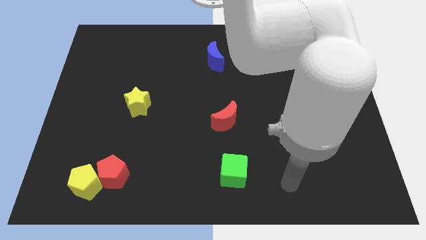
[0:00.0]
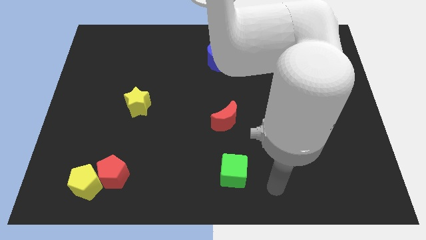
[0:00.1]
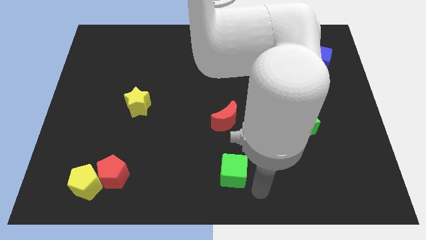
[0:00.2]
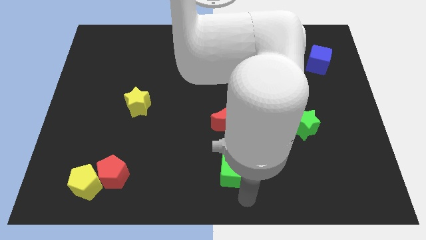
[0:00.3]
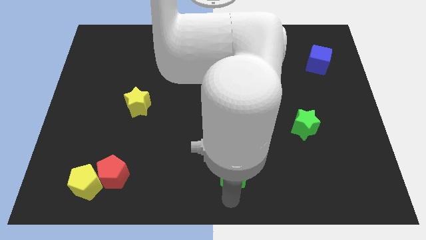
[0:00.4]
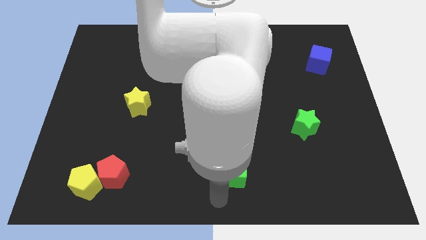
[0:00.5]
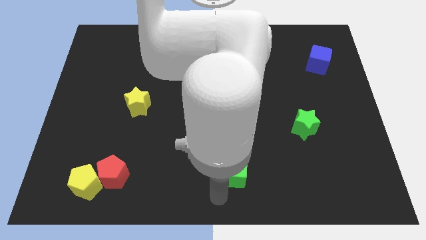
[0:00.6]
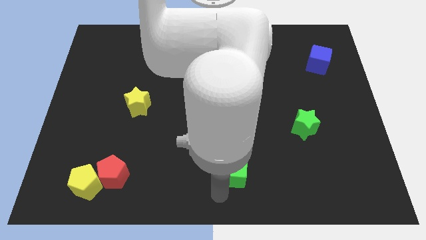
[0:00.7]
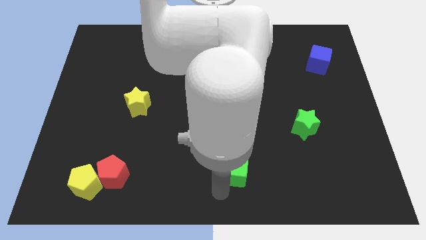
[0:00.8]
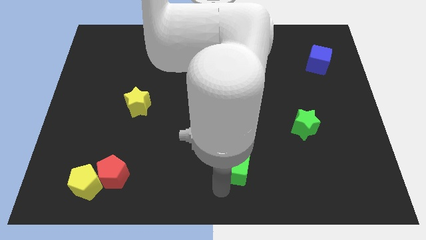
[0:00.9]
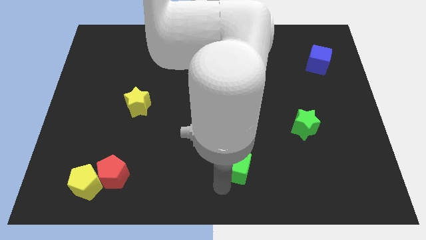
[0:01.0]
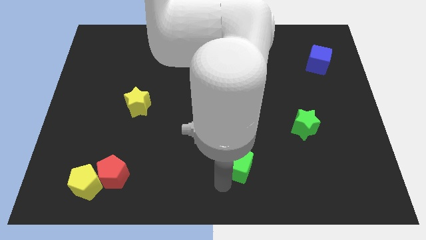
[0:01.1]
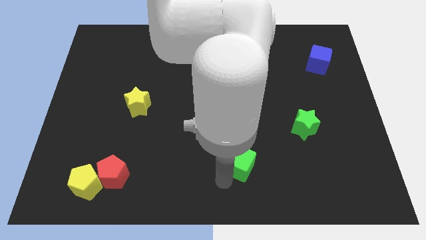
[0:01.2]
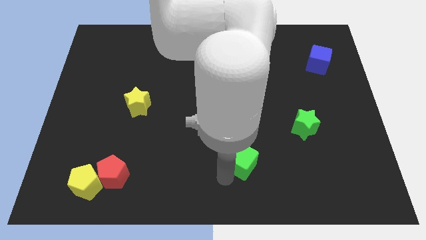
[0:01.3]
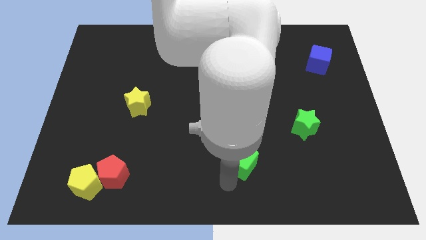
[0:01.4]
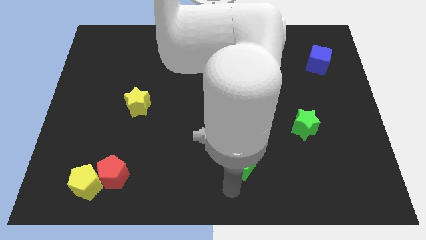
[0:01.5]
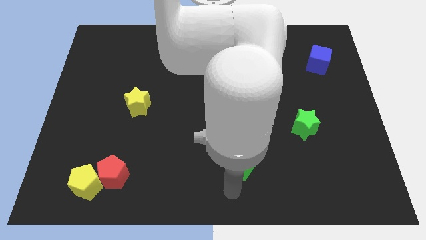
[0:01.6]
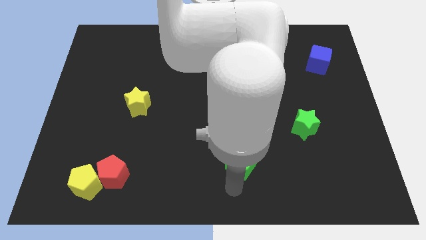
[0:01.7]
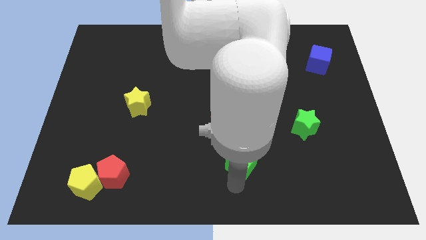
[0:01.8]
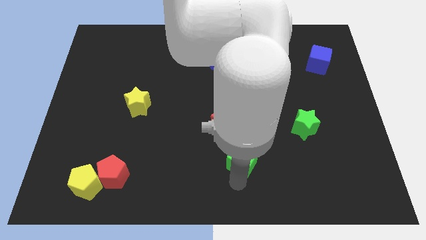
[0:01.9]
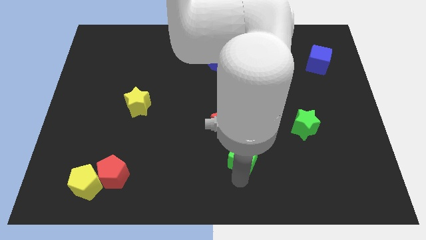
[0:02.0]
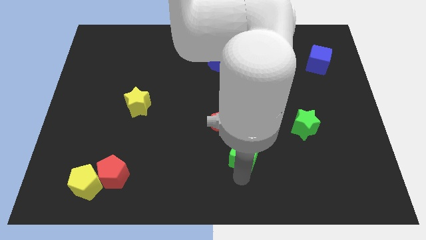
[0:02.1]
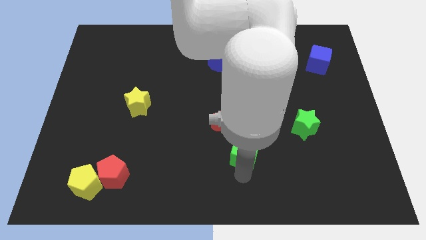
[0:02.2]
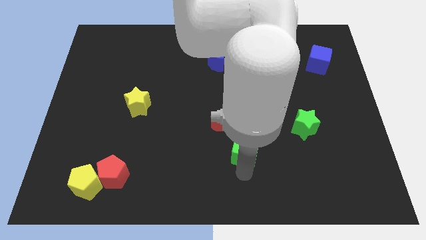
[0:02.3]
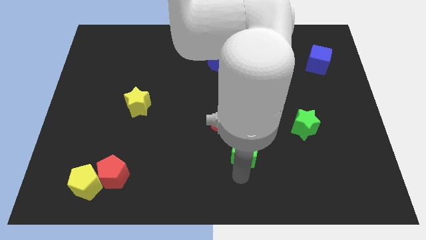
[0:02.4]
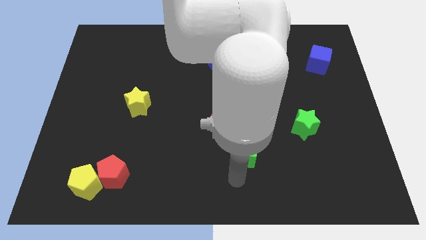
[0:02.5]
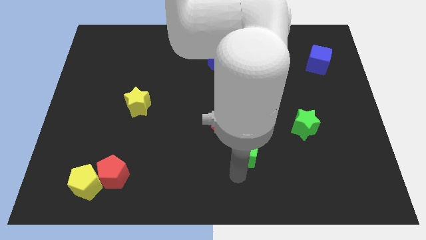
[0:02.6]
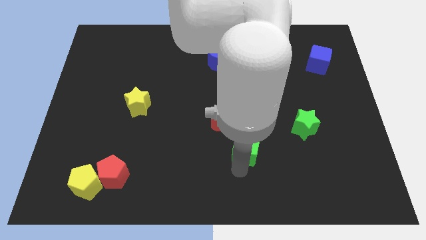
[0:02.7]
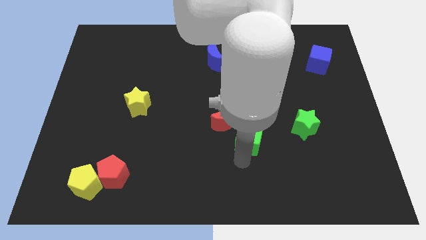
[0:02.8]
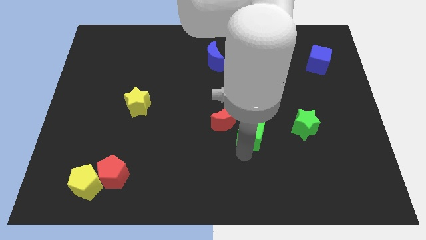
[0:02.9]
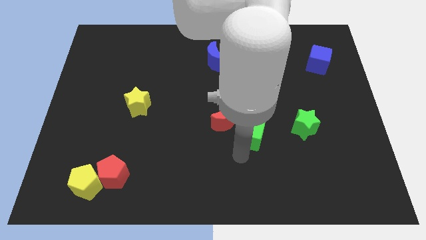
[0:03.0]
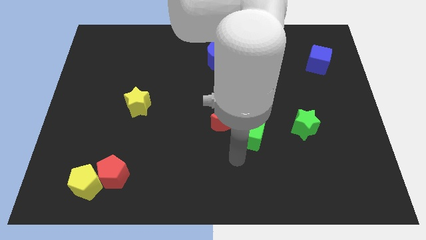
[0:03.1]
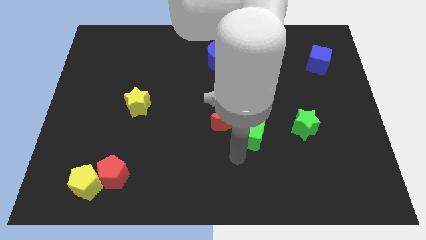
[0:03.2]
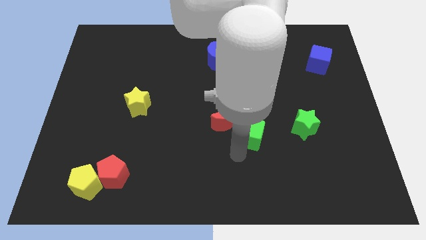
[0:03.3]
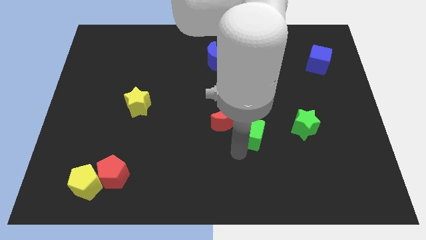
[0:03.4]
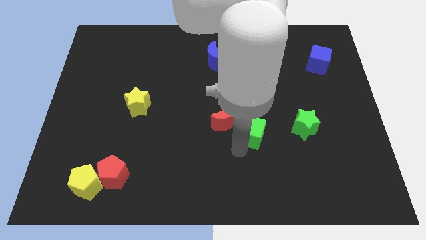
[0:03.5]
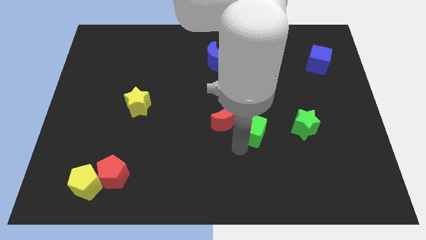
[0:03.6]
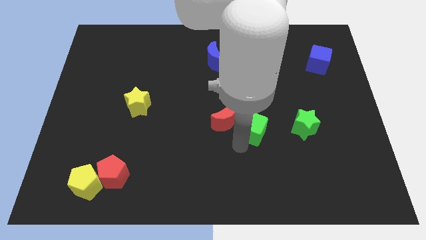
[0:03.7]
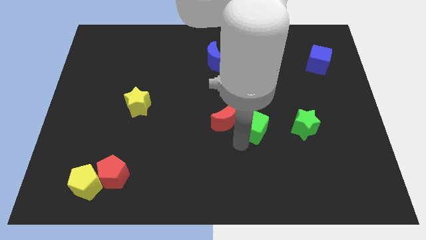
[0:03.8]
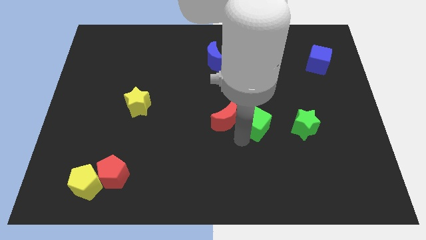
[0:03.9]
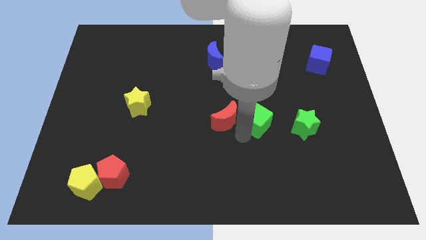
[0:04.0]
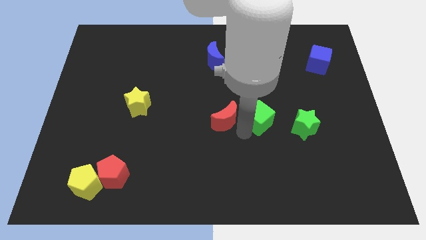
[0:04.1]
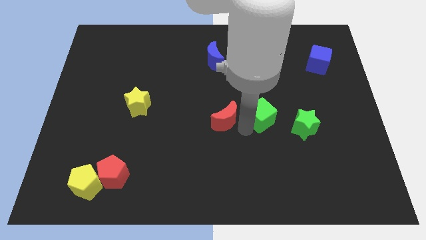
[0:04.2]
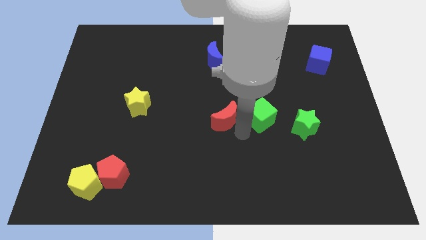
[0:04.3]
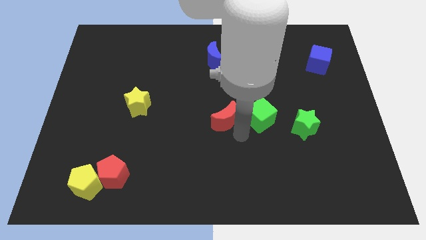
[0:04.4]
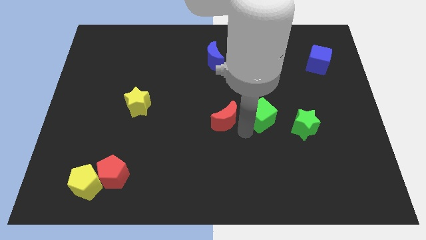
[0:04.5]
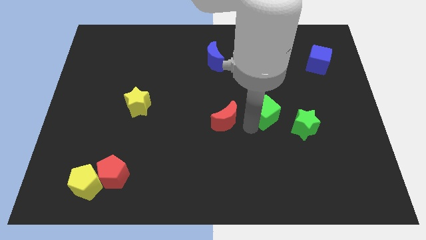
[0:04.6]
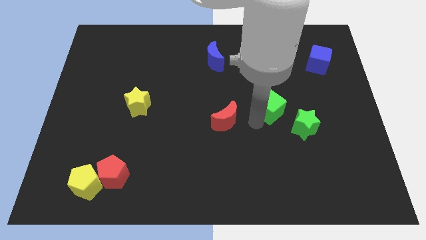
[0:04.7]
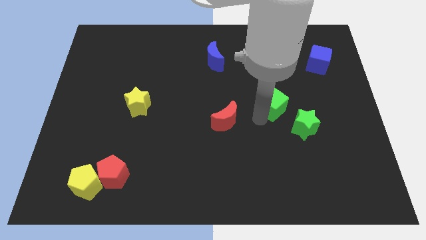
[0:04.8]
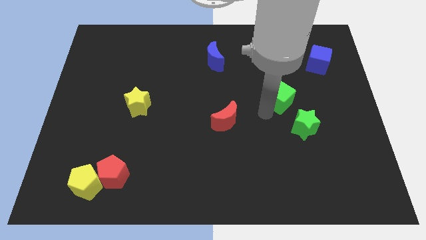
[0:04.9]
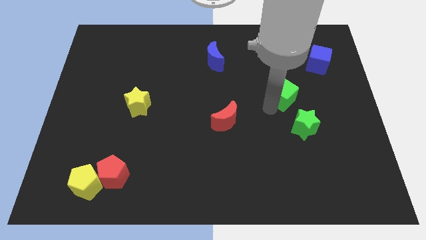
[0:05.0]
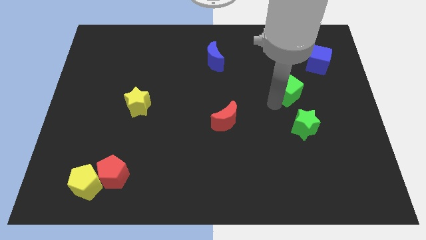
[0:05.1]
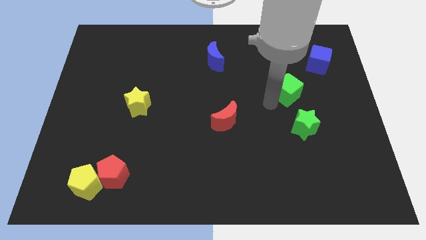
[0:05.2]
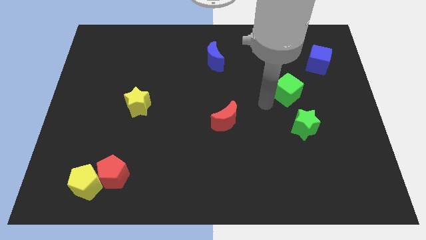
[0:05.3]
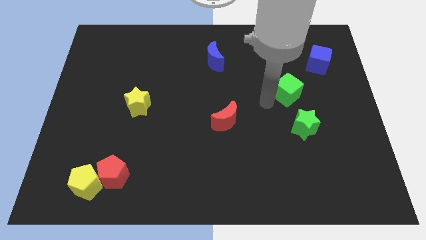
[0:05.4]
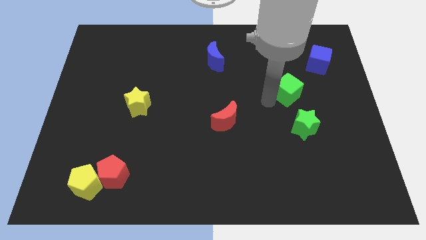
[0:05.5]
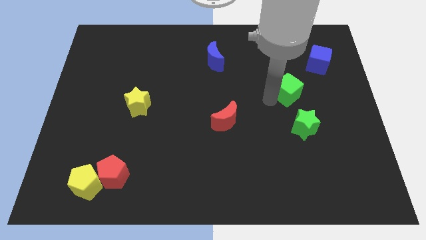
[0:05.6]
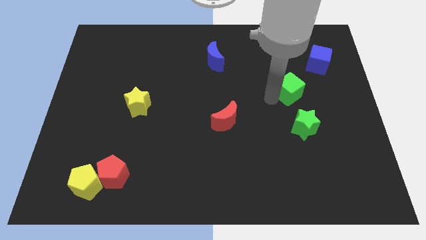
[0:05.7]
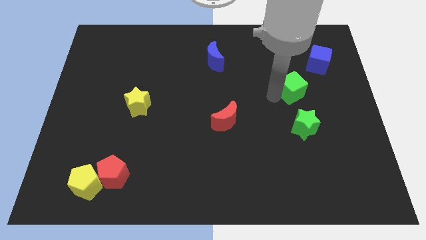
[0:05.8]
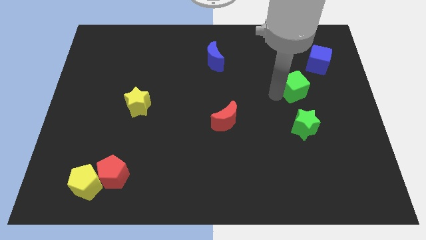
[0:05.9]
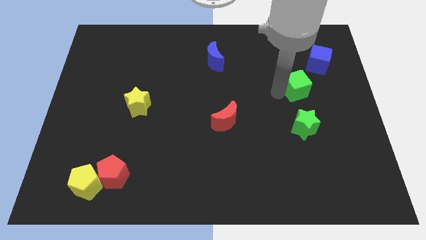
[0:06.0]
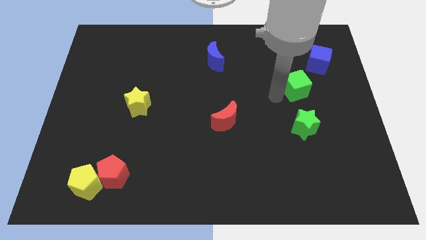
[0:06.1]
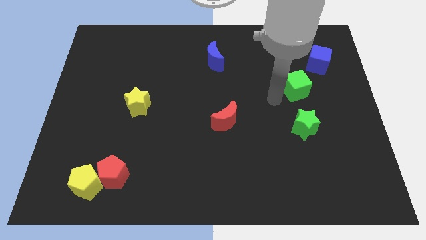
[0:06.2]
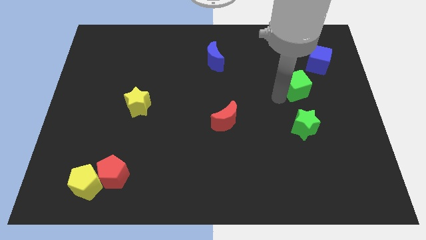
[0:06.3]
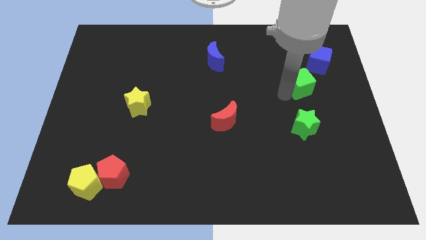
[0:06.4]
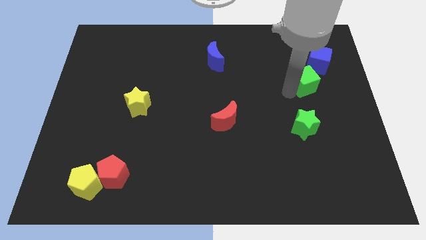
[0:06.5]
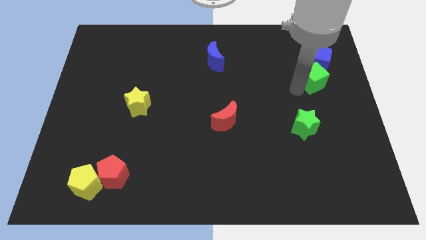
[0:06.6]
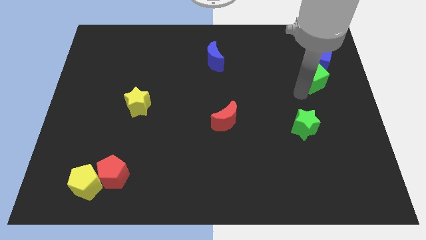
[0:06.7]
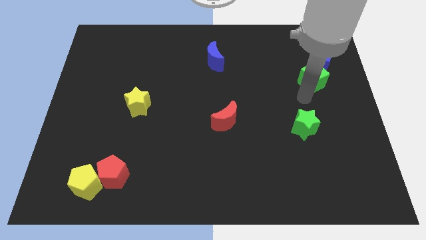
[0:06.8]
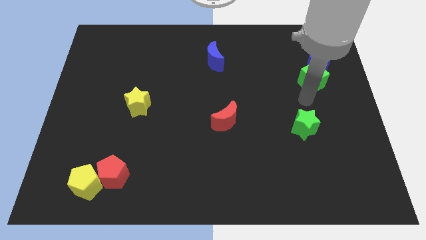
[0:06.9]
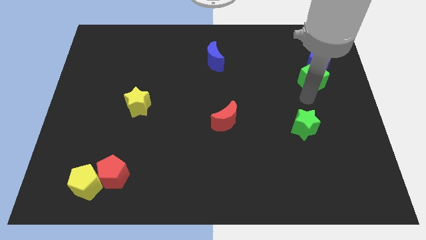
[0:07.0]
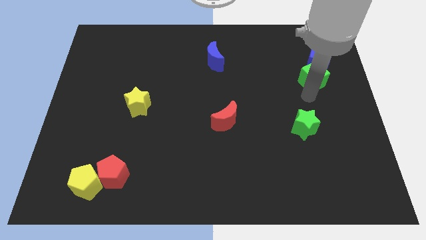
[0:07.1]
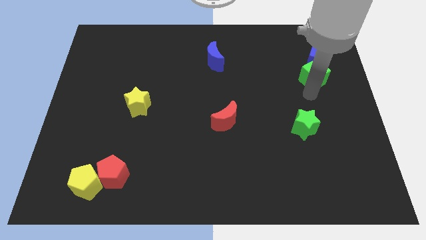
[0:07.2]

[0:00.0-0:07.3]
put the green cube to the blue cube
